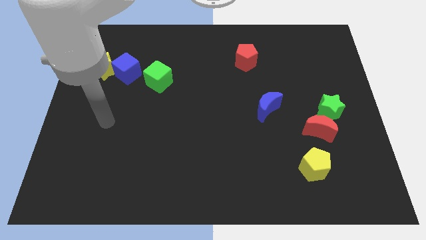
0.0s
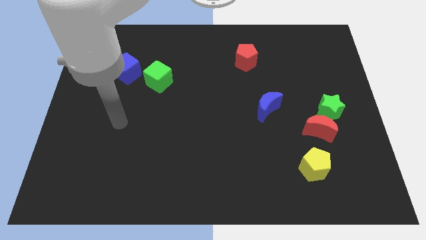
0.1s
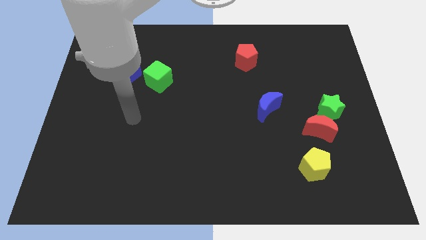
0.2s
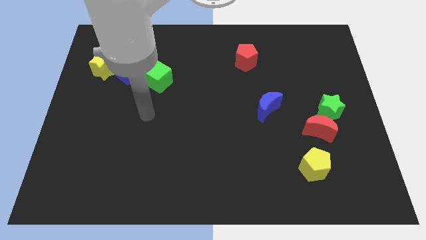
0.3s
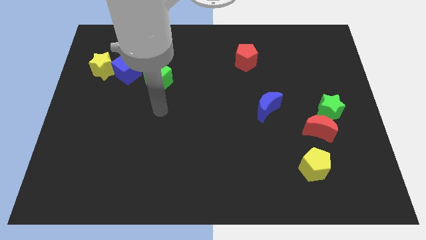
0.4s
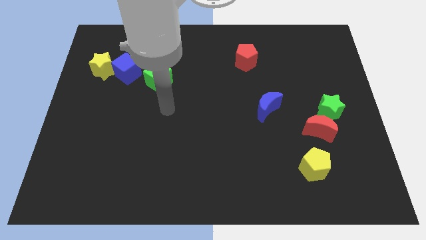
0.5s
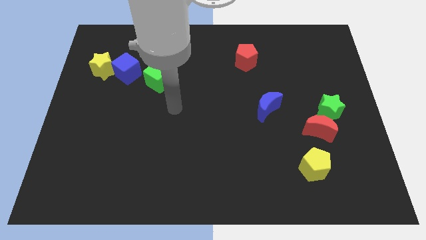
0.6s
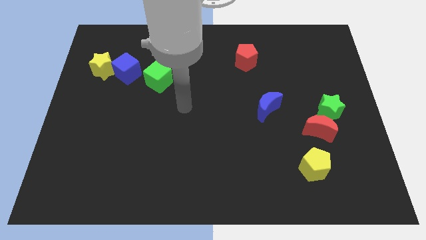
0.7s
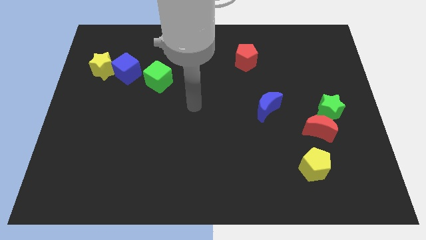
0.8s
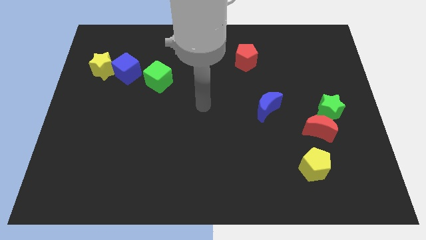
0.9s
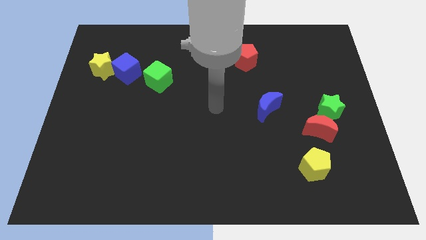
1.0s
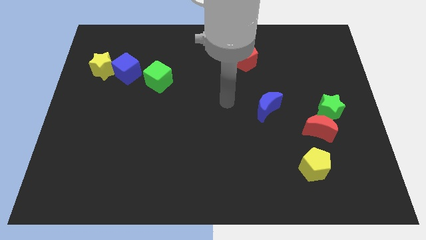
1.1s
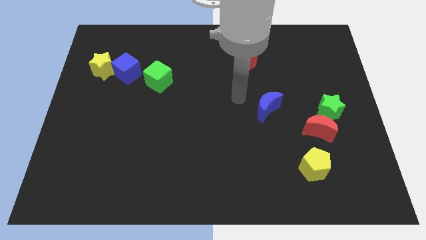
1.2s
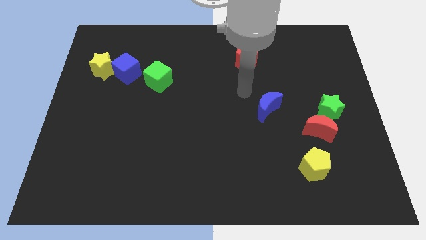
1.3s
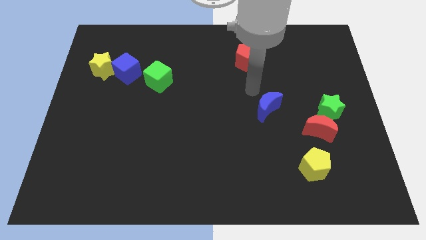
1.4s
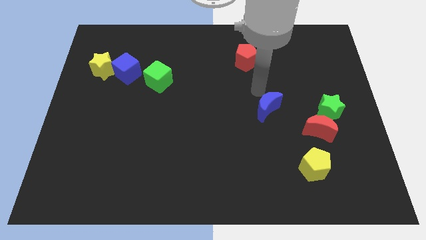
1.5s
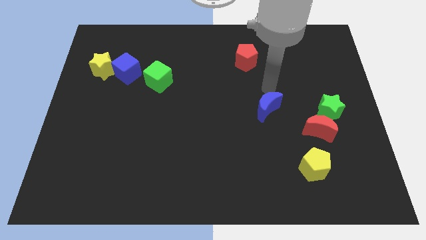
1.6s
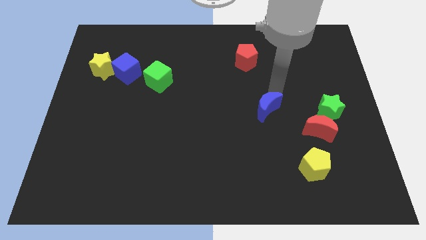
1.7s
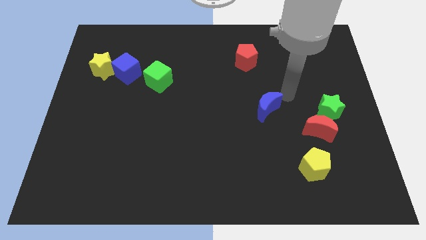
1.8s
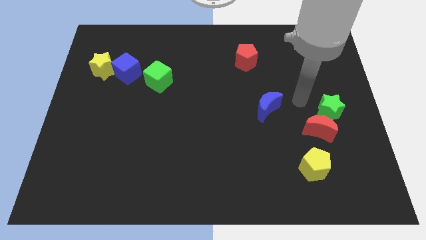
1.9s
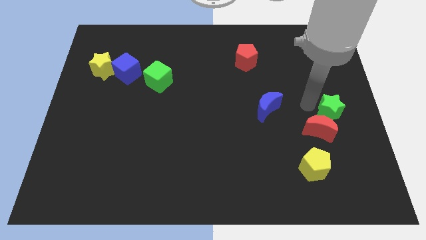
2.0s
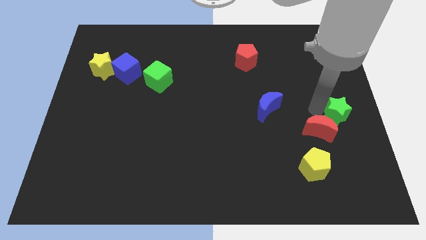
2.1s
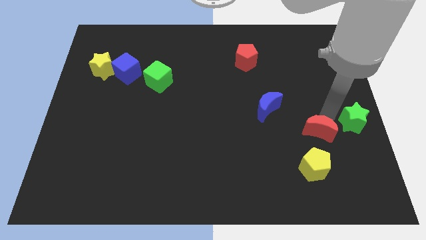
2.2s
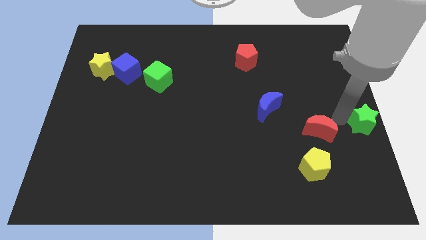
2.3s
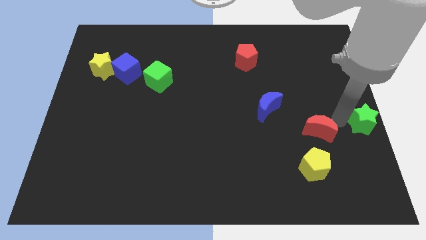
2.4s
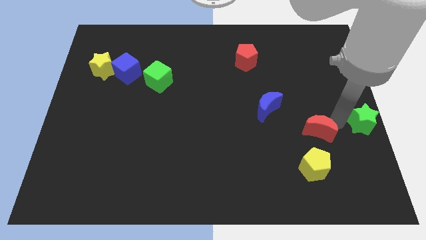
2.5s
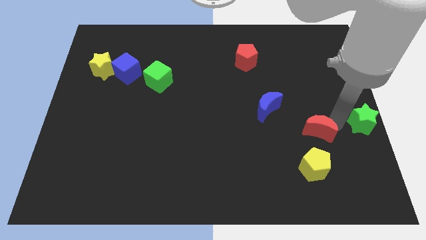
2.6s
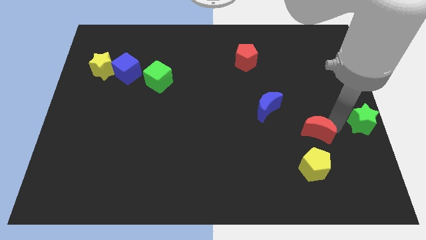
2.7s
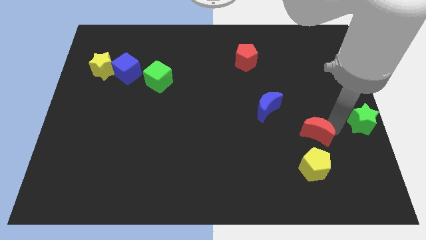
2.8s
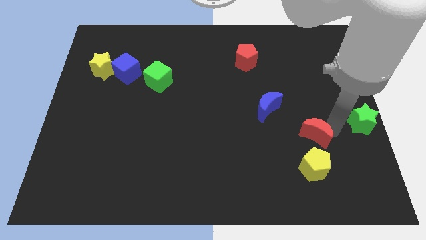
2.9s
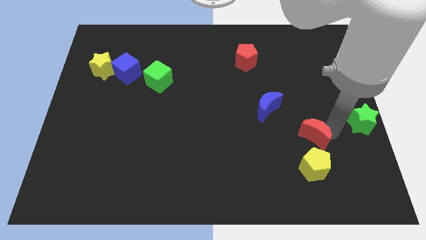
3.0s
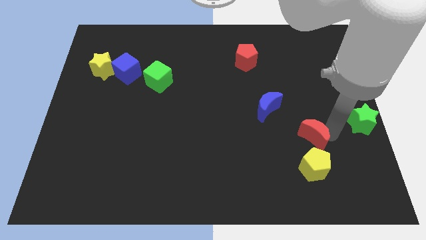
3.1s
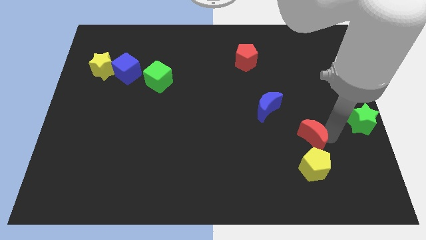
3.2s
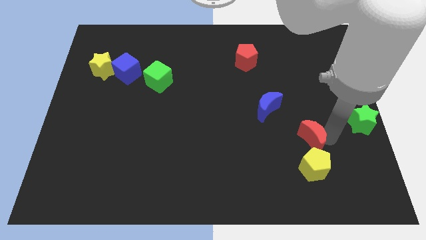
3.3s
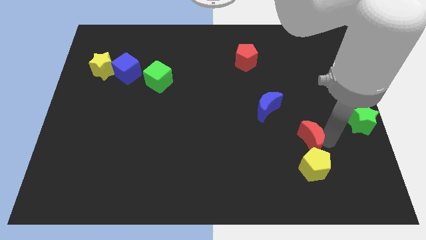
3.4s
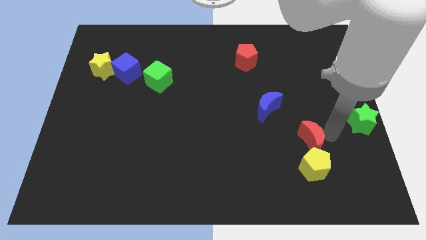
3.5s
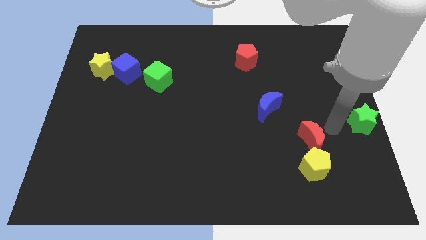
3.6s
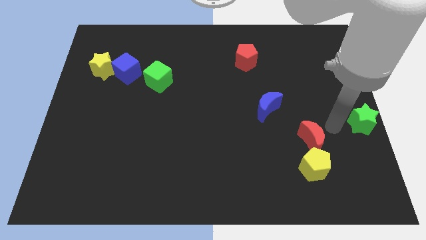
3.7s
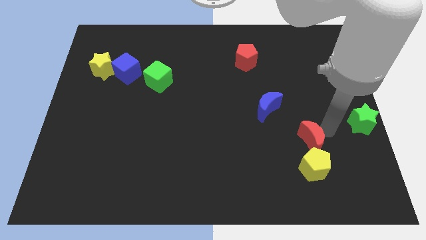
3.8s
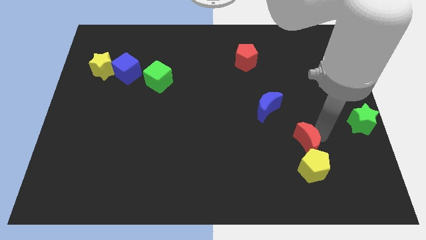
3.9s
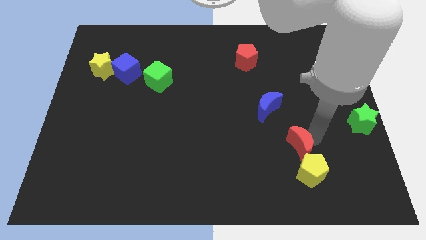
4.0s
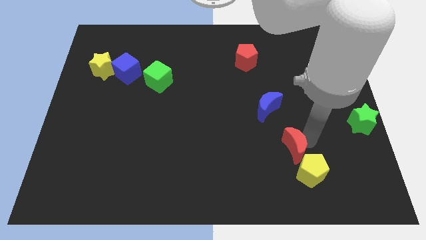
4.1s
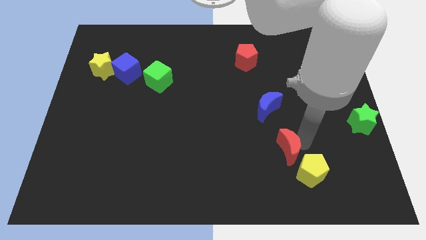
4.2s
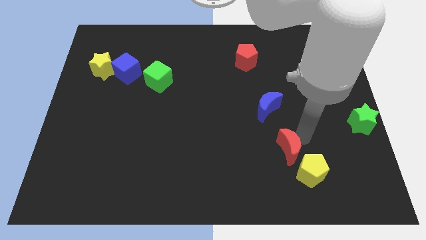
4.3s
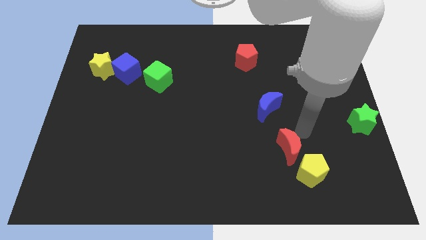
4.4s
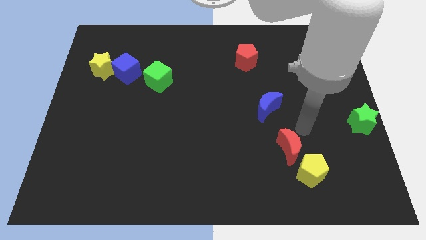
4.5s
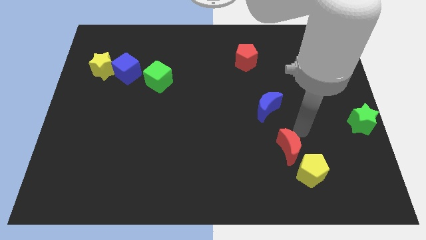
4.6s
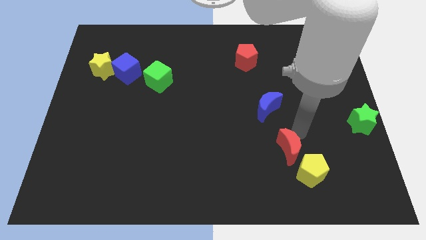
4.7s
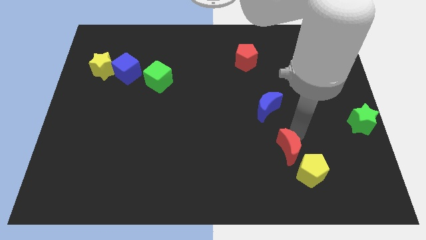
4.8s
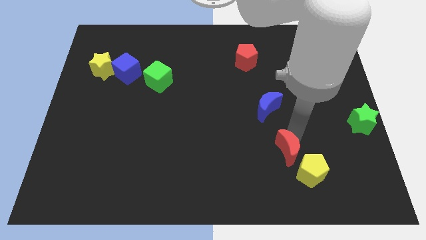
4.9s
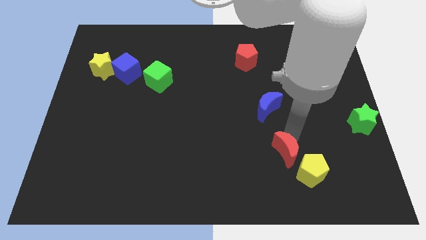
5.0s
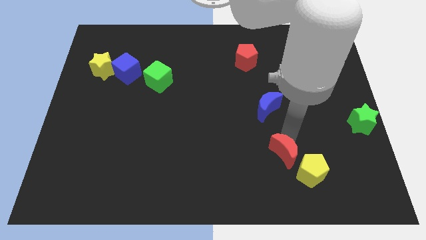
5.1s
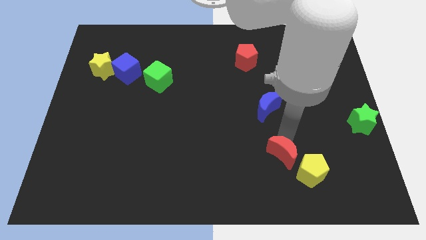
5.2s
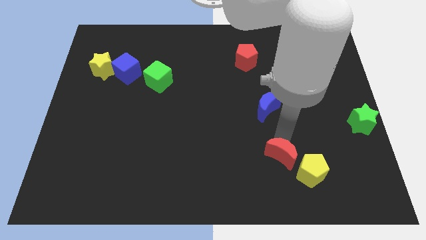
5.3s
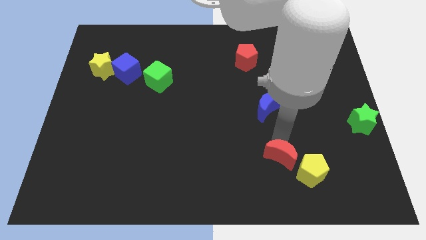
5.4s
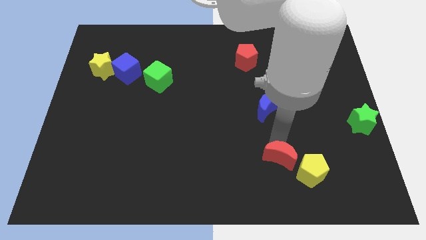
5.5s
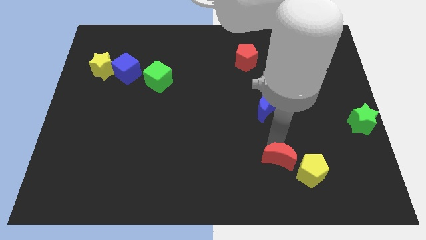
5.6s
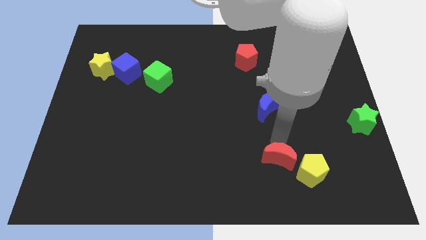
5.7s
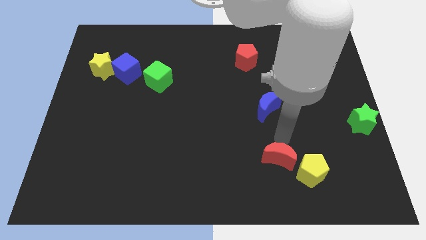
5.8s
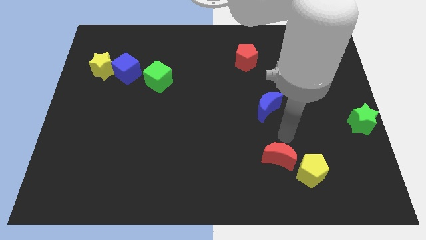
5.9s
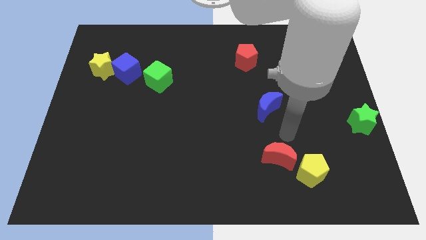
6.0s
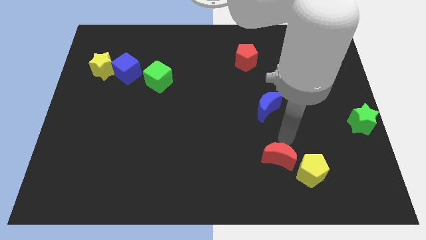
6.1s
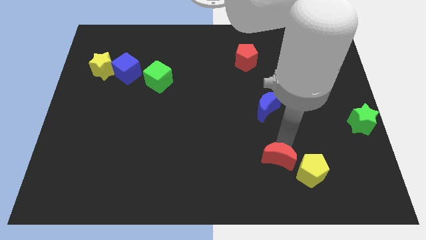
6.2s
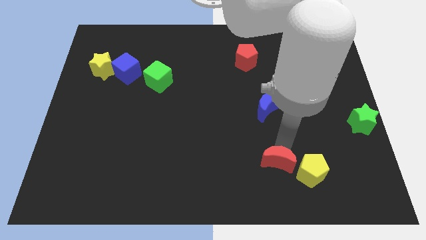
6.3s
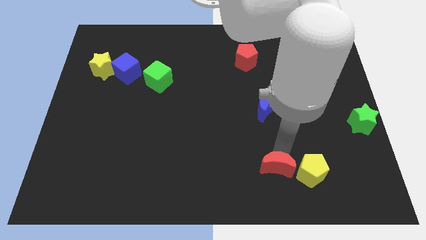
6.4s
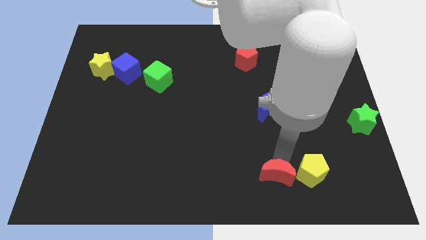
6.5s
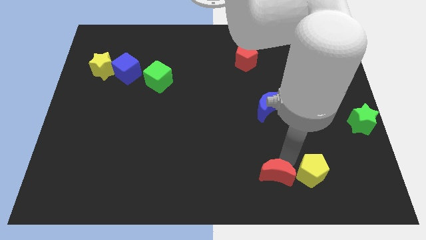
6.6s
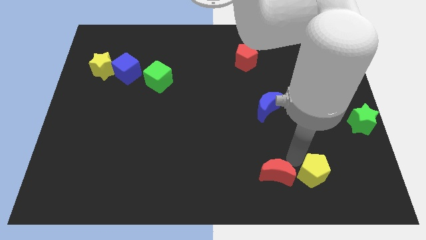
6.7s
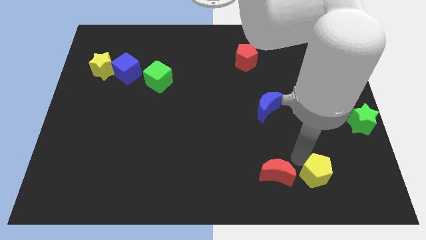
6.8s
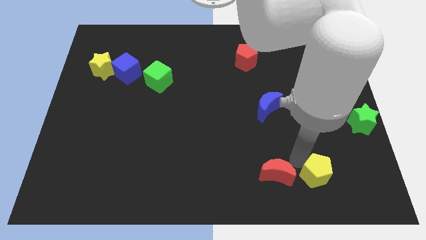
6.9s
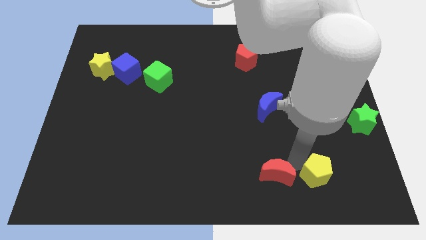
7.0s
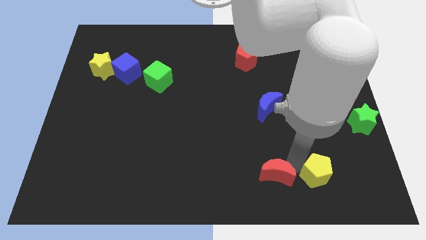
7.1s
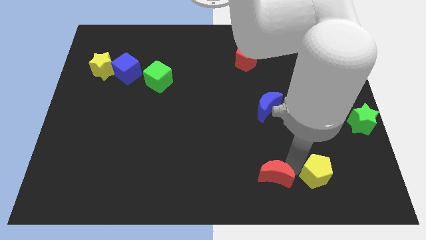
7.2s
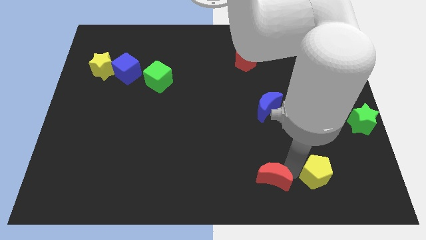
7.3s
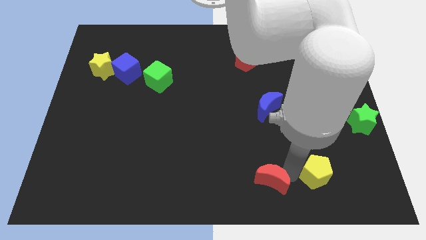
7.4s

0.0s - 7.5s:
slide the red moon to the bottom
